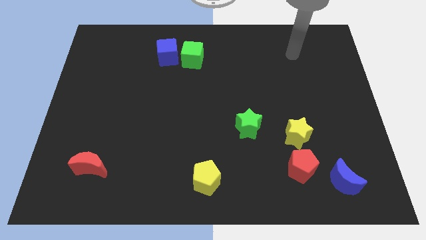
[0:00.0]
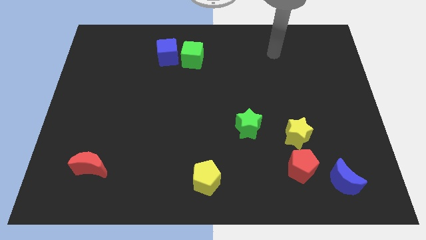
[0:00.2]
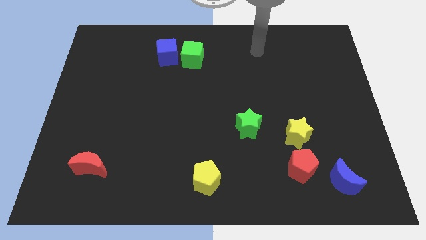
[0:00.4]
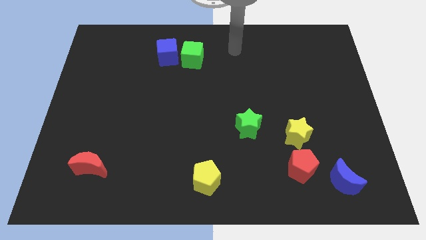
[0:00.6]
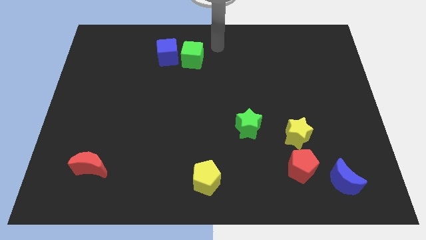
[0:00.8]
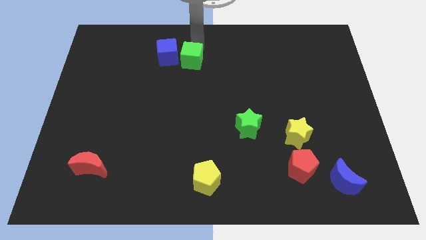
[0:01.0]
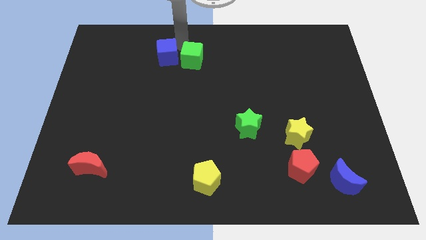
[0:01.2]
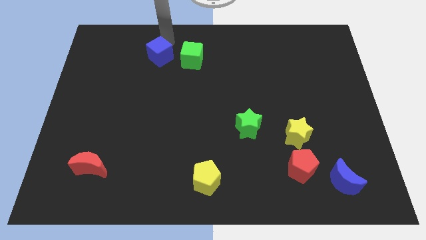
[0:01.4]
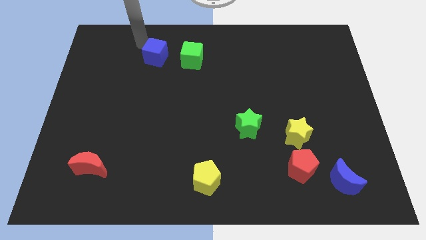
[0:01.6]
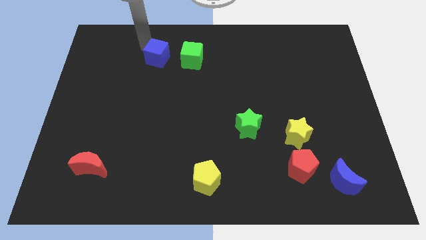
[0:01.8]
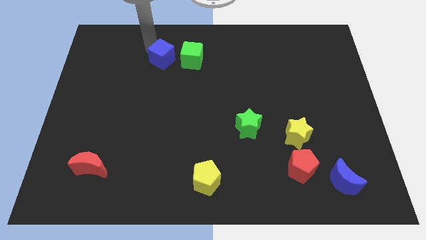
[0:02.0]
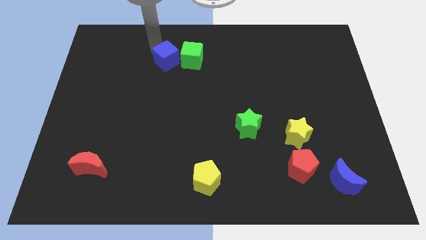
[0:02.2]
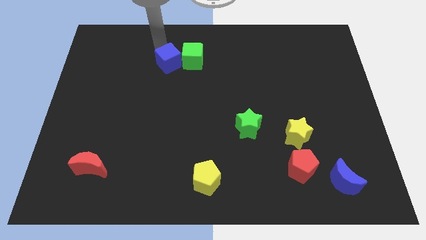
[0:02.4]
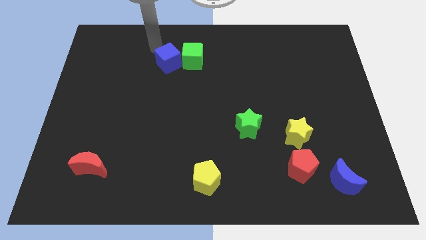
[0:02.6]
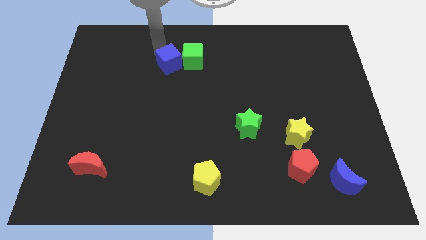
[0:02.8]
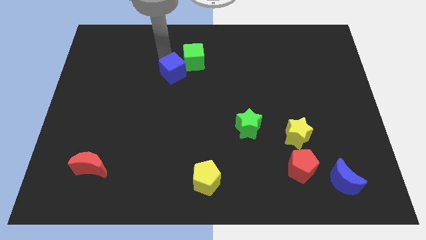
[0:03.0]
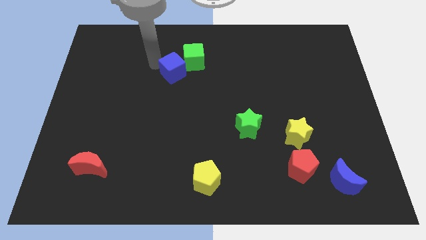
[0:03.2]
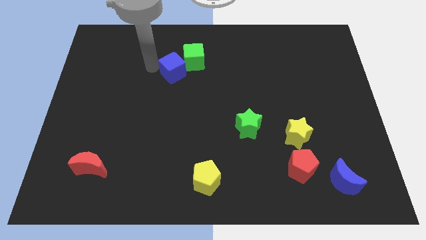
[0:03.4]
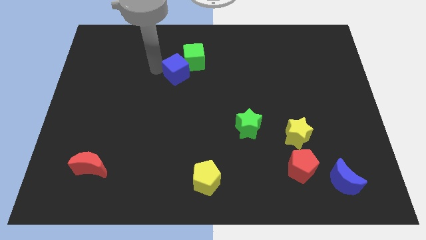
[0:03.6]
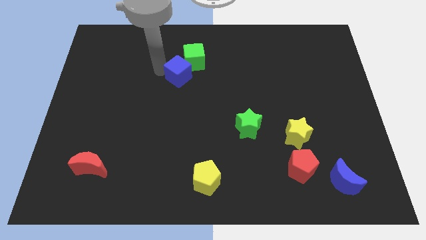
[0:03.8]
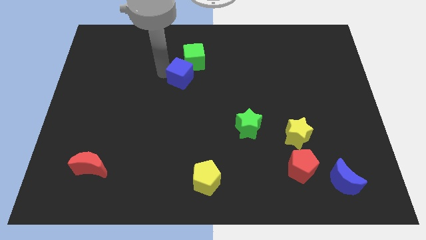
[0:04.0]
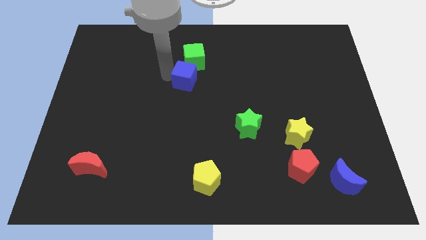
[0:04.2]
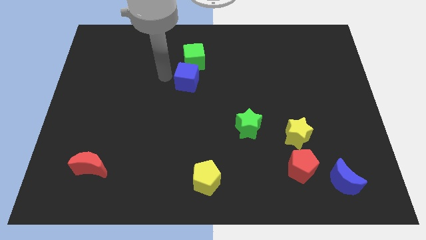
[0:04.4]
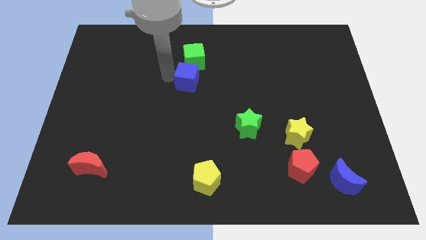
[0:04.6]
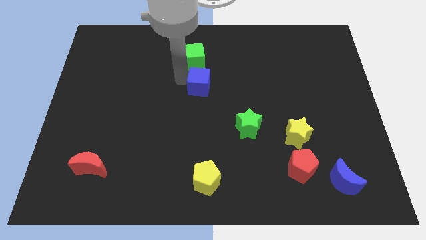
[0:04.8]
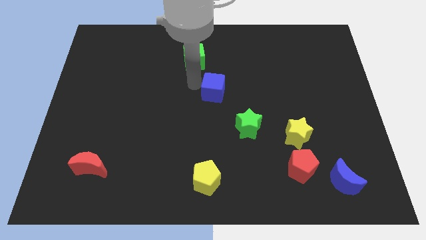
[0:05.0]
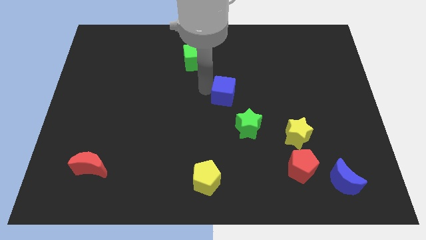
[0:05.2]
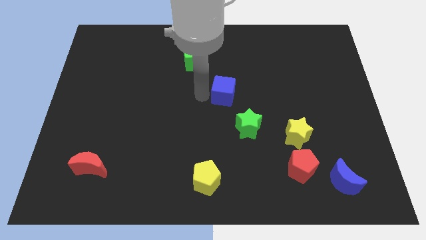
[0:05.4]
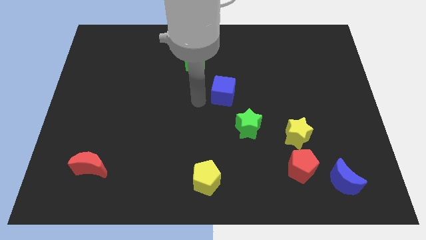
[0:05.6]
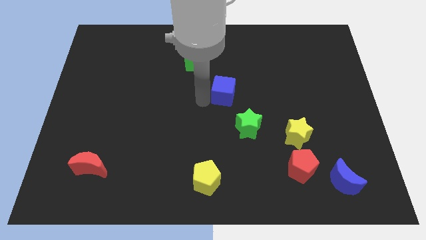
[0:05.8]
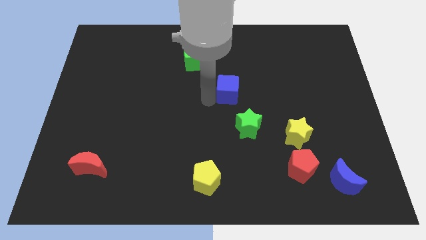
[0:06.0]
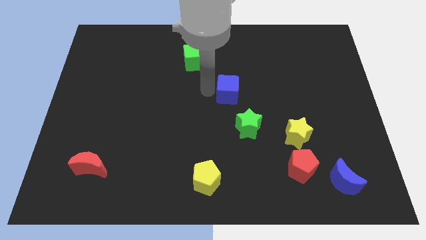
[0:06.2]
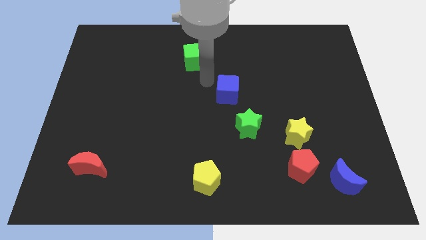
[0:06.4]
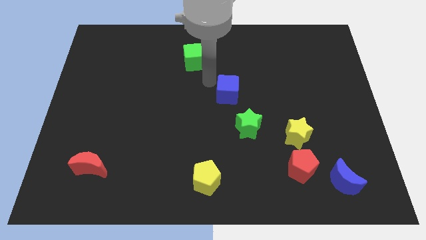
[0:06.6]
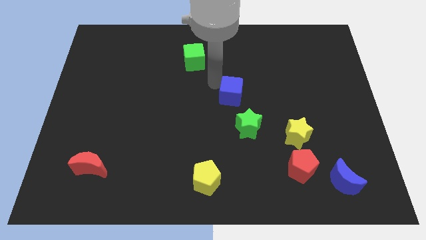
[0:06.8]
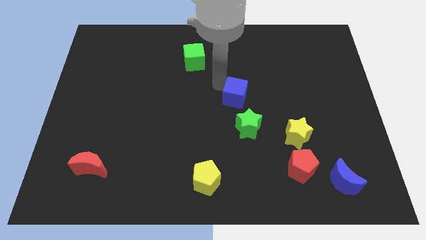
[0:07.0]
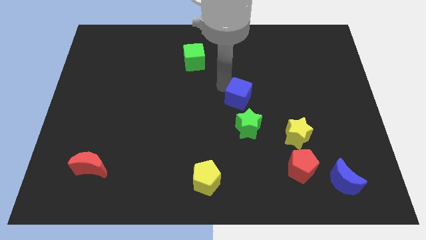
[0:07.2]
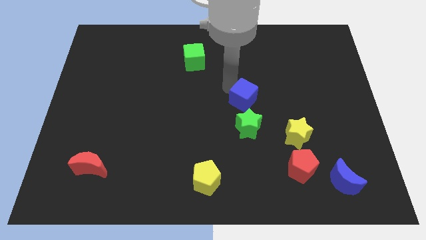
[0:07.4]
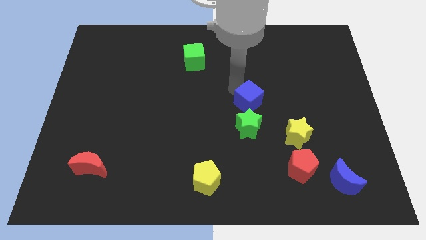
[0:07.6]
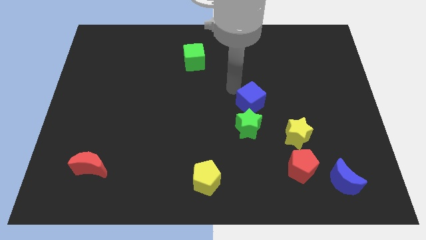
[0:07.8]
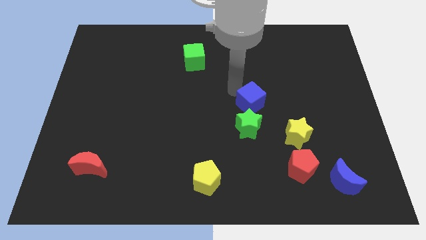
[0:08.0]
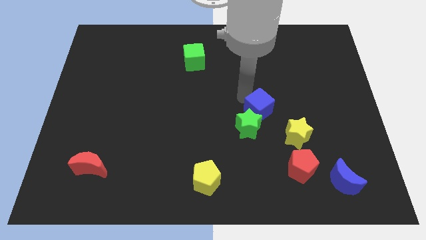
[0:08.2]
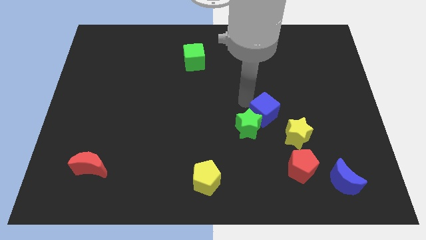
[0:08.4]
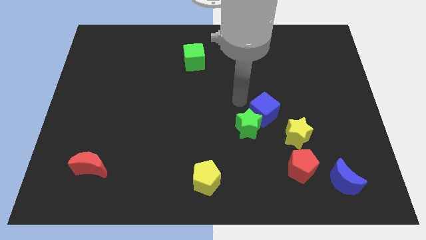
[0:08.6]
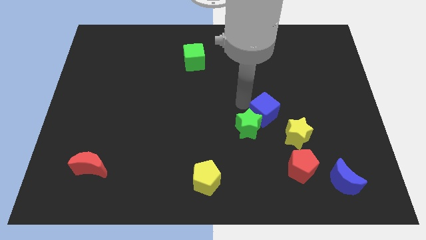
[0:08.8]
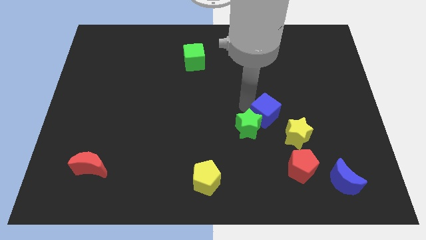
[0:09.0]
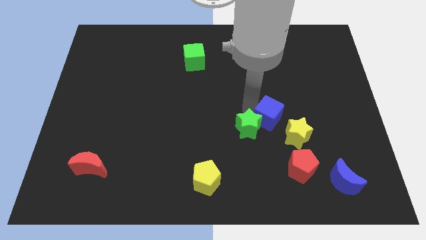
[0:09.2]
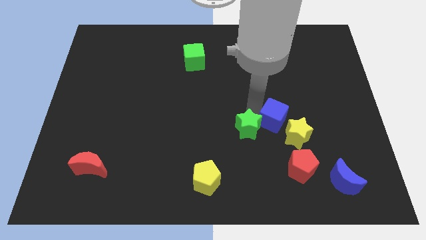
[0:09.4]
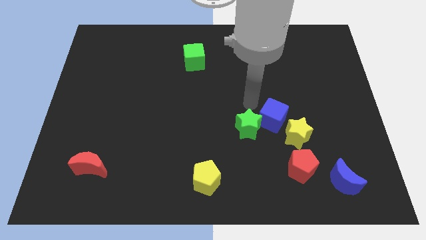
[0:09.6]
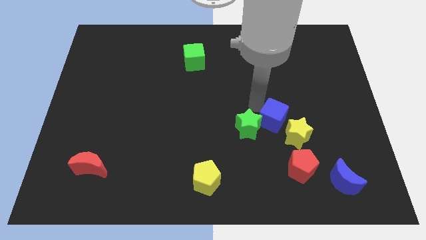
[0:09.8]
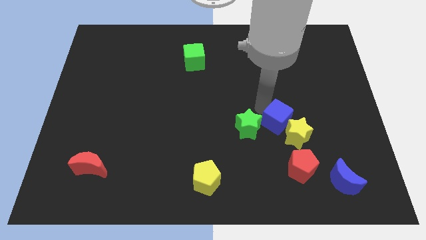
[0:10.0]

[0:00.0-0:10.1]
slide the blue cube next to the yellow star

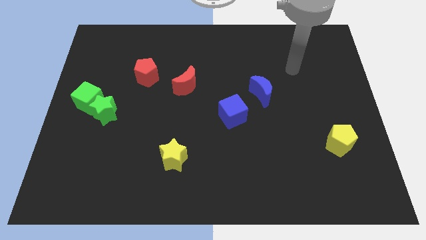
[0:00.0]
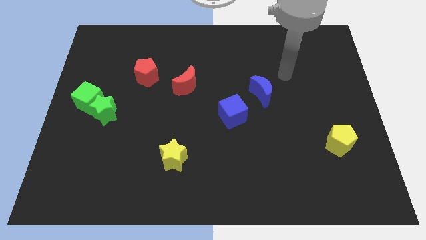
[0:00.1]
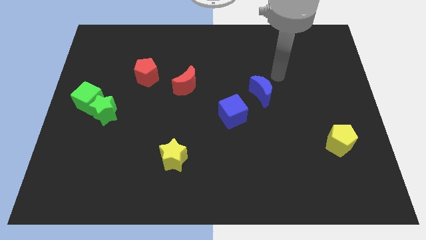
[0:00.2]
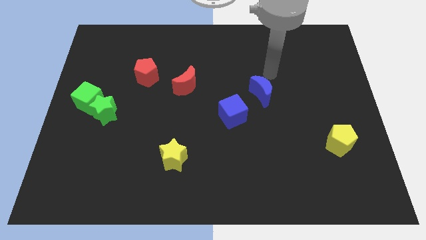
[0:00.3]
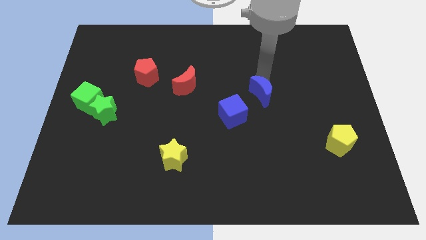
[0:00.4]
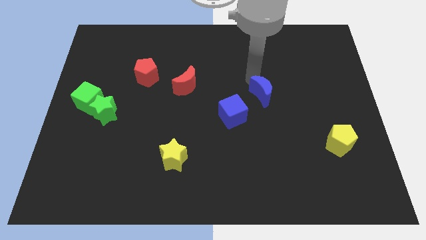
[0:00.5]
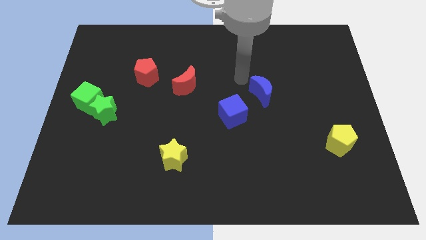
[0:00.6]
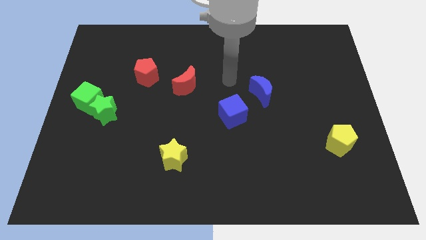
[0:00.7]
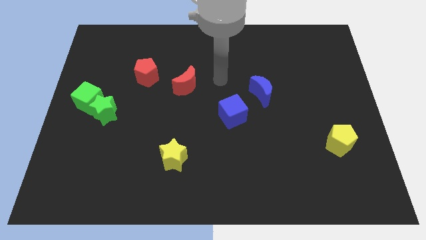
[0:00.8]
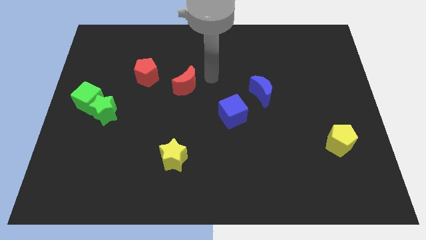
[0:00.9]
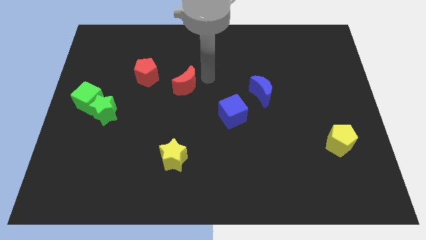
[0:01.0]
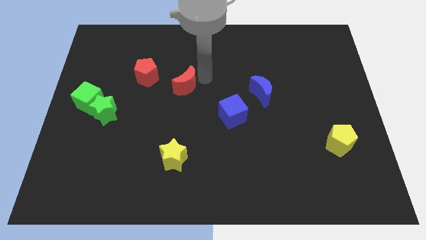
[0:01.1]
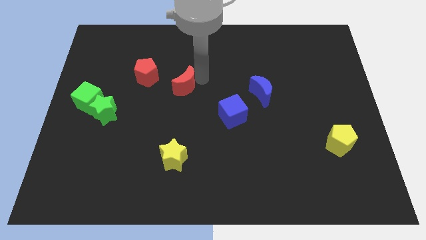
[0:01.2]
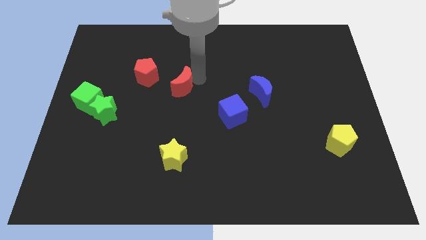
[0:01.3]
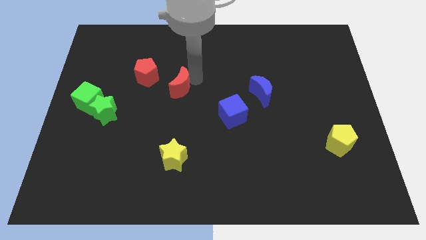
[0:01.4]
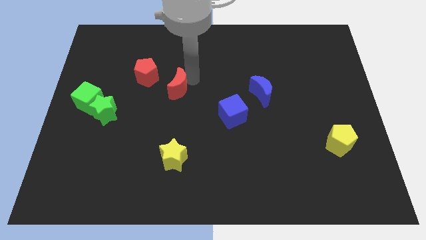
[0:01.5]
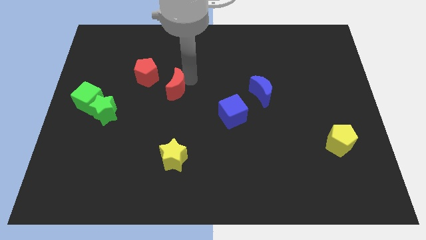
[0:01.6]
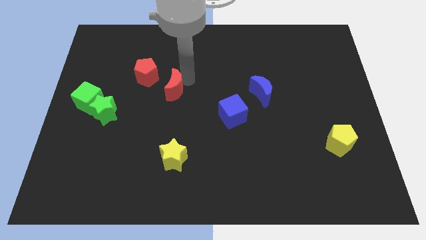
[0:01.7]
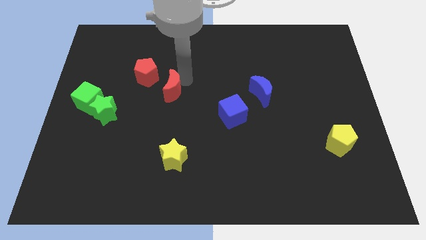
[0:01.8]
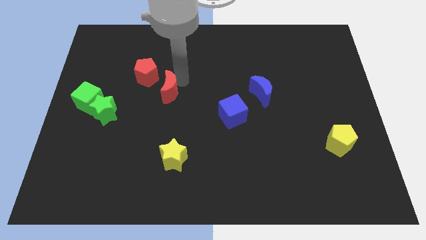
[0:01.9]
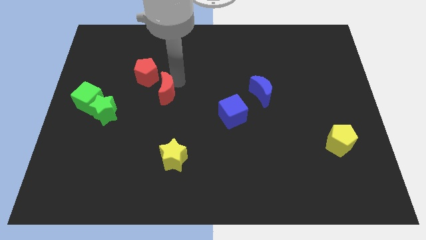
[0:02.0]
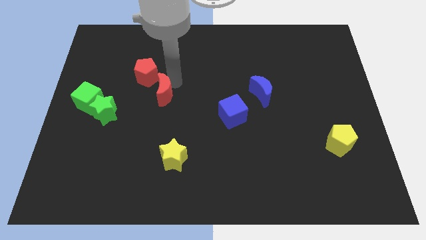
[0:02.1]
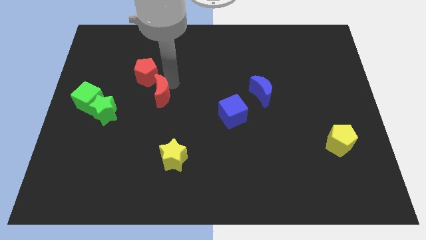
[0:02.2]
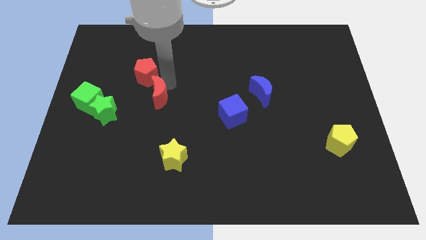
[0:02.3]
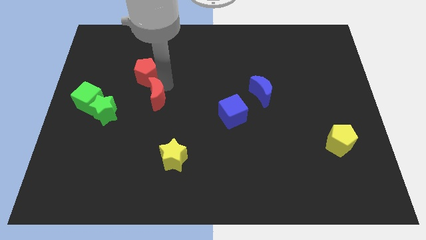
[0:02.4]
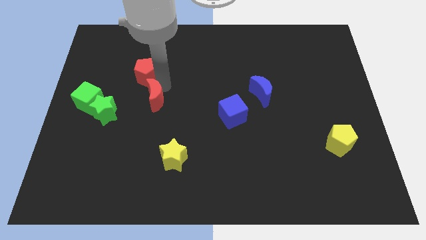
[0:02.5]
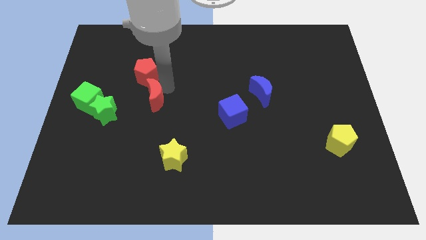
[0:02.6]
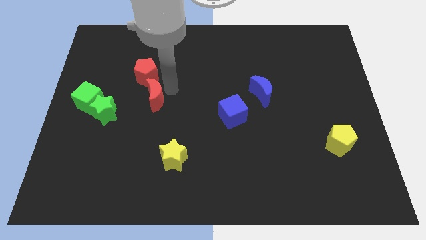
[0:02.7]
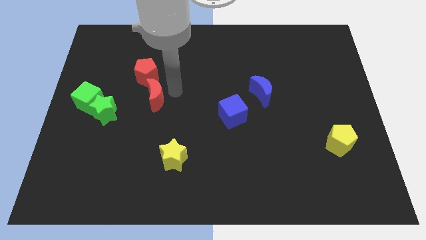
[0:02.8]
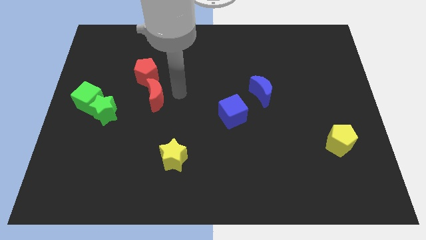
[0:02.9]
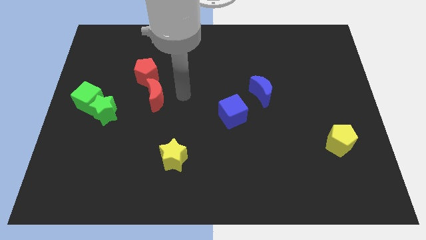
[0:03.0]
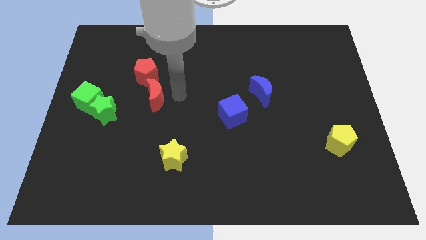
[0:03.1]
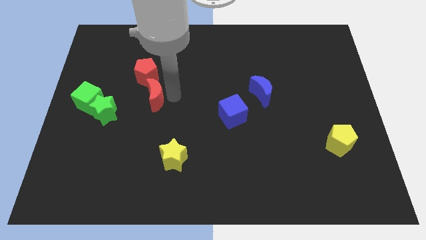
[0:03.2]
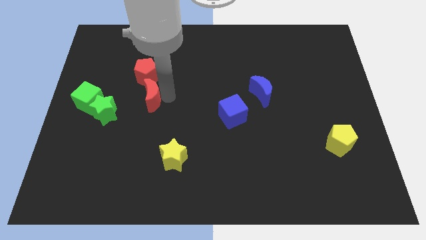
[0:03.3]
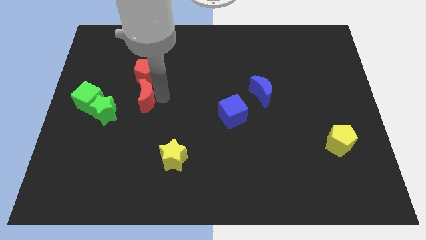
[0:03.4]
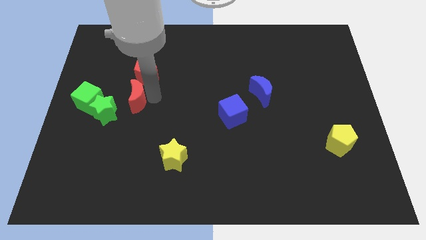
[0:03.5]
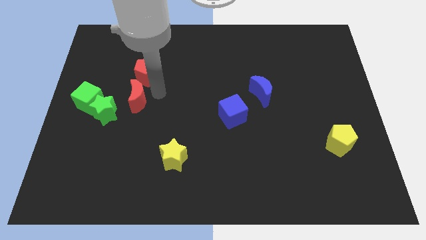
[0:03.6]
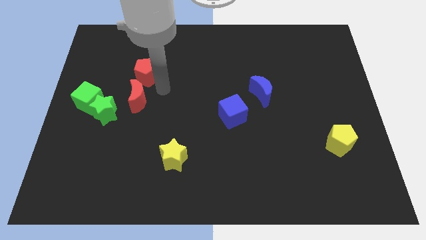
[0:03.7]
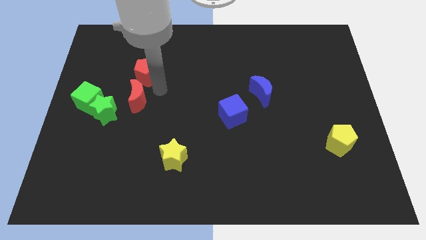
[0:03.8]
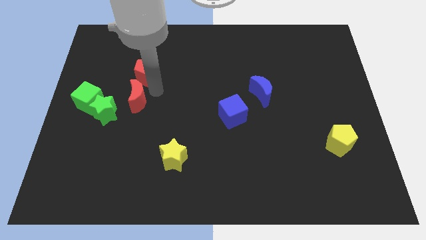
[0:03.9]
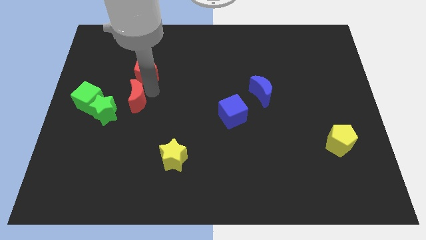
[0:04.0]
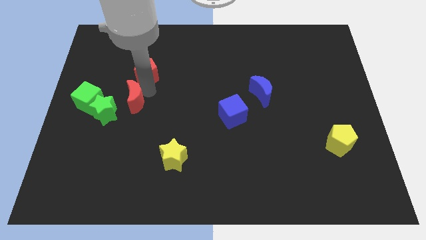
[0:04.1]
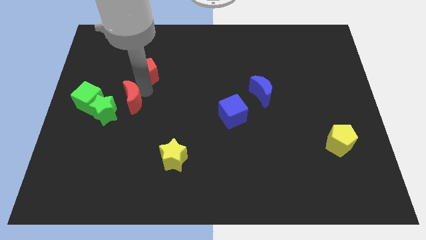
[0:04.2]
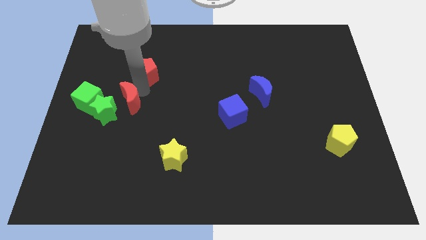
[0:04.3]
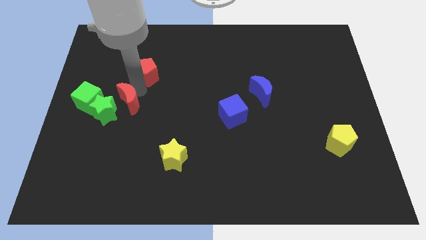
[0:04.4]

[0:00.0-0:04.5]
slide the red moon next to the green star
